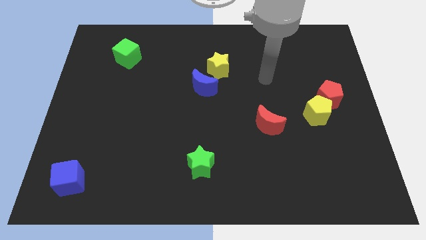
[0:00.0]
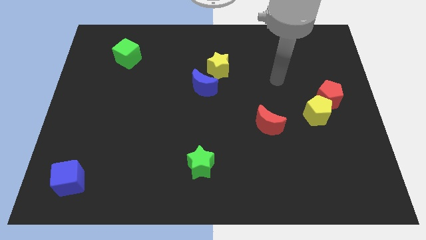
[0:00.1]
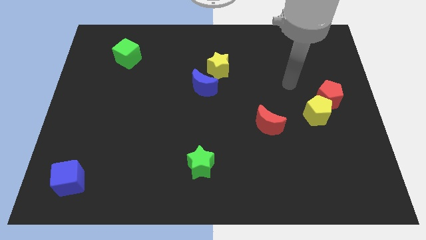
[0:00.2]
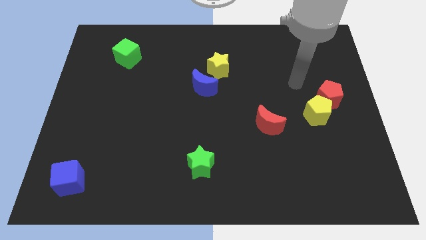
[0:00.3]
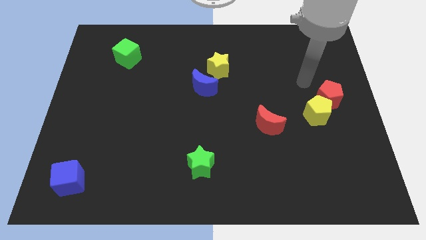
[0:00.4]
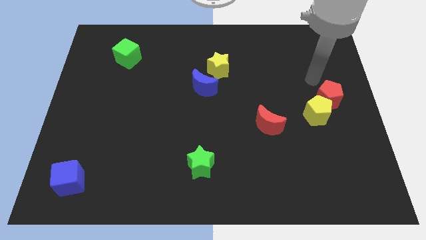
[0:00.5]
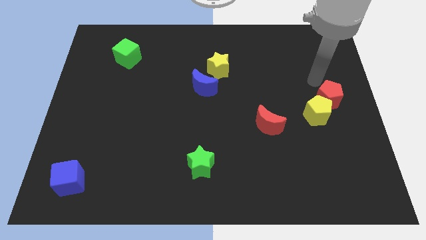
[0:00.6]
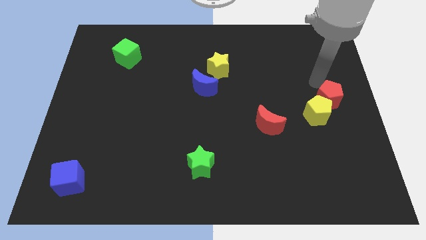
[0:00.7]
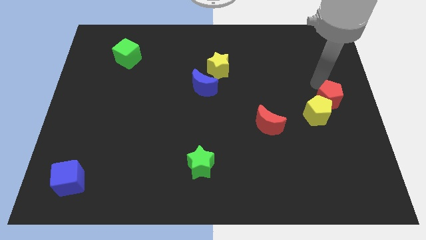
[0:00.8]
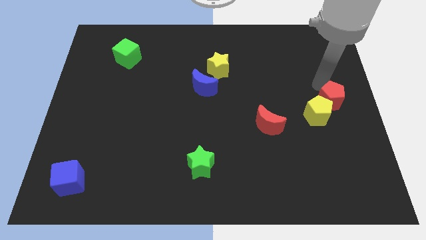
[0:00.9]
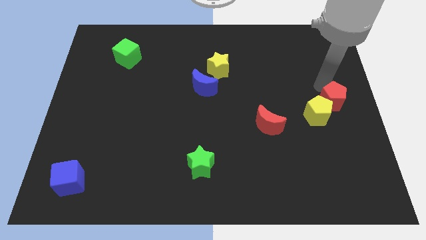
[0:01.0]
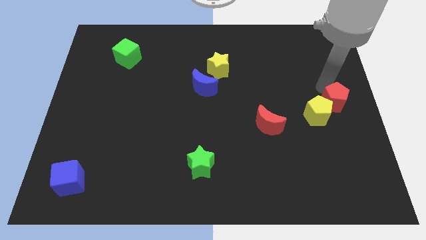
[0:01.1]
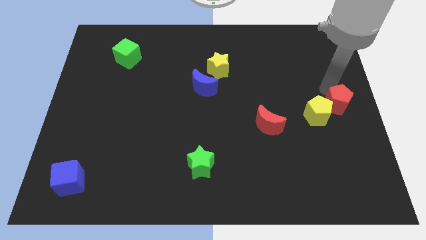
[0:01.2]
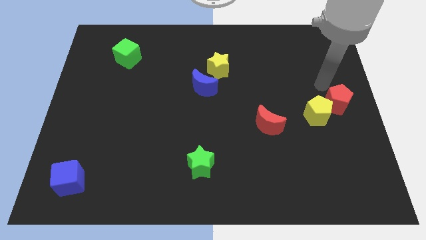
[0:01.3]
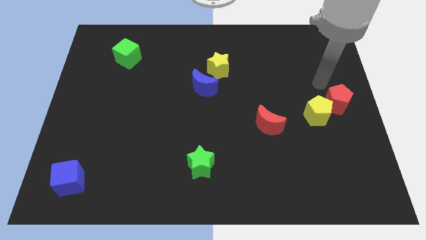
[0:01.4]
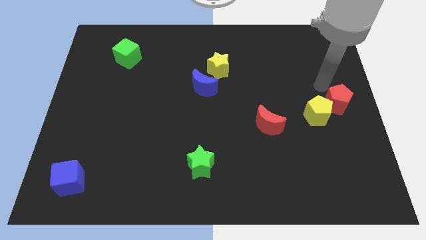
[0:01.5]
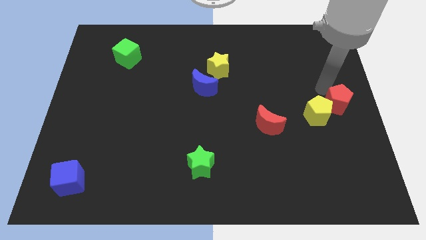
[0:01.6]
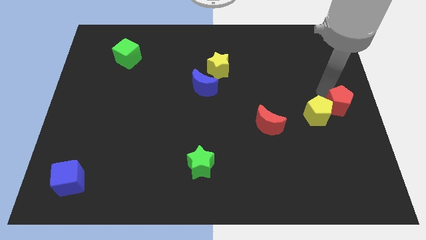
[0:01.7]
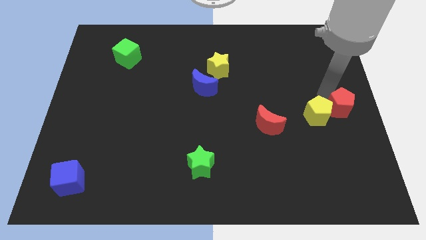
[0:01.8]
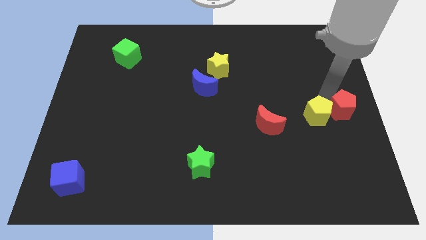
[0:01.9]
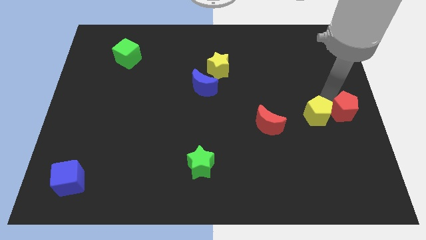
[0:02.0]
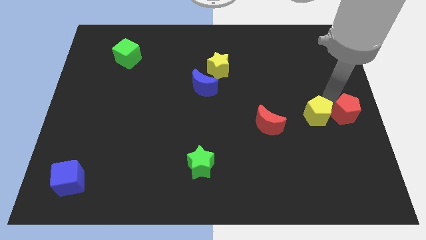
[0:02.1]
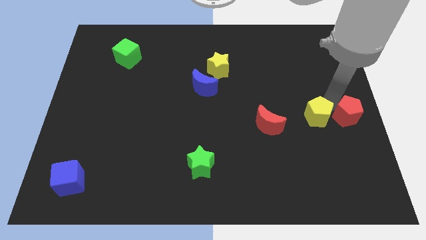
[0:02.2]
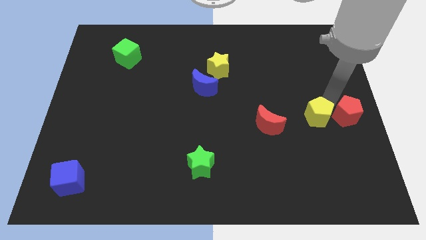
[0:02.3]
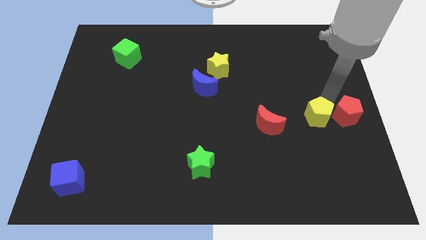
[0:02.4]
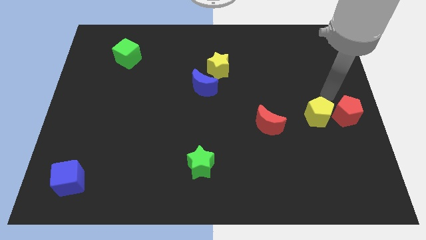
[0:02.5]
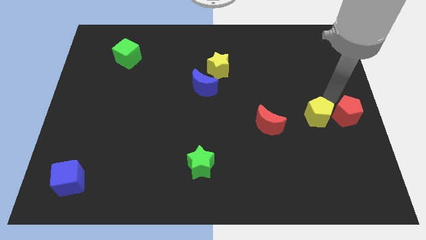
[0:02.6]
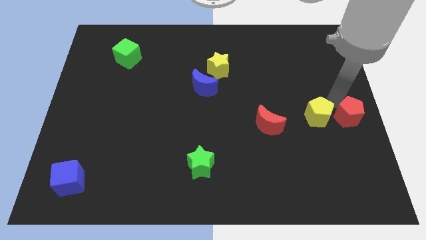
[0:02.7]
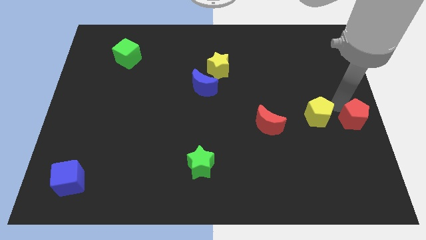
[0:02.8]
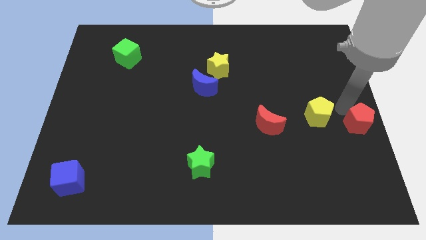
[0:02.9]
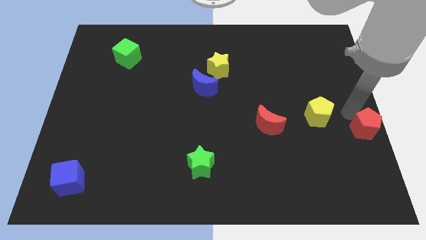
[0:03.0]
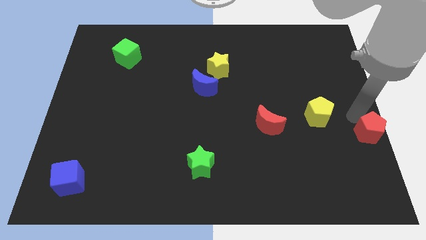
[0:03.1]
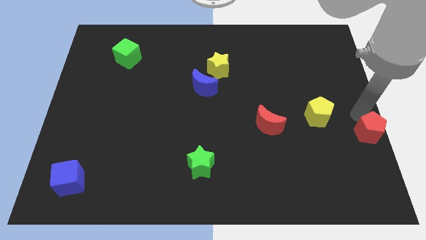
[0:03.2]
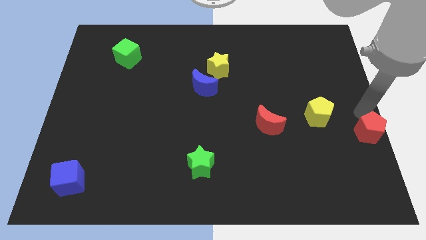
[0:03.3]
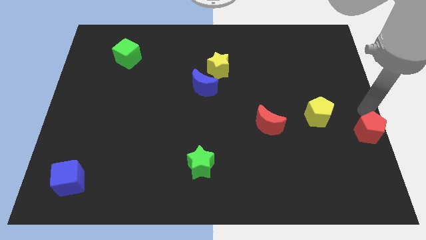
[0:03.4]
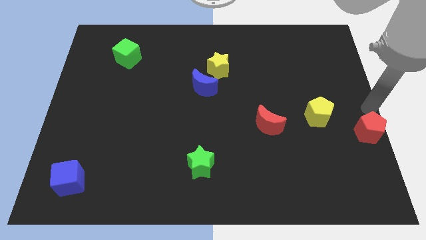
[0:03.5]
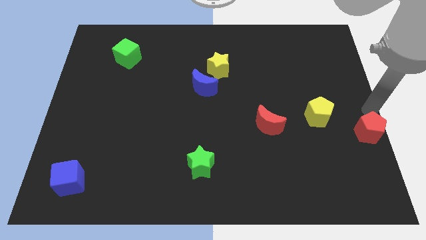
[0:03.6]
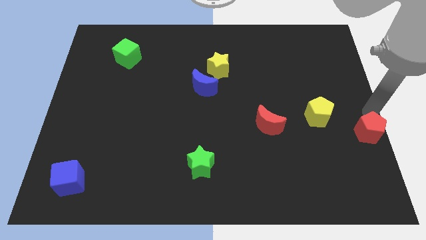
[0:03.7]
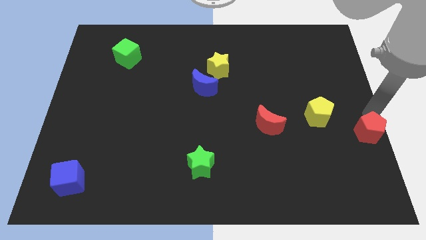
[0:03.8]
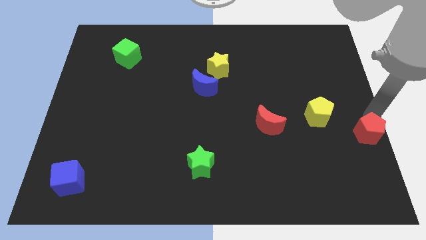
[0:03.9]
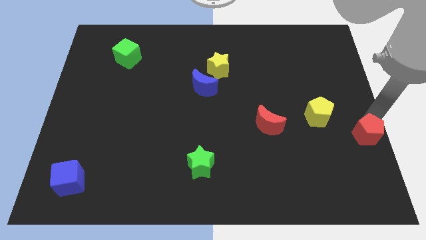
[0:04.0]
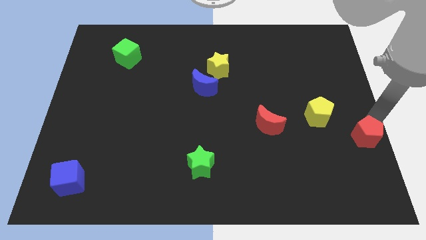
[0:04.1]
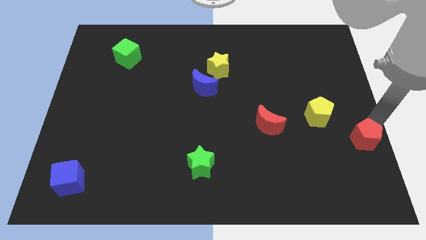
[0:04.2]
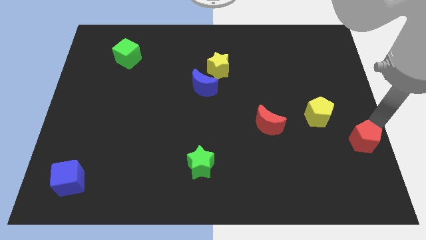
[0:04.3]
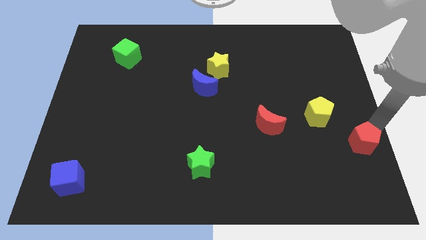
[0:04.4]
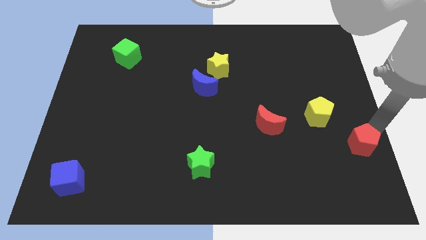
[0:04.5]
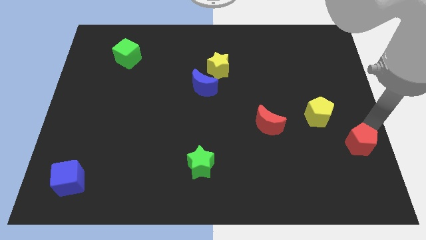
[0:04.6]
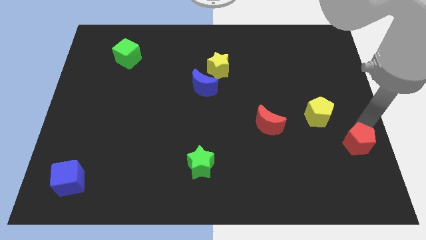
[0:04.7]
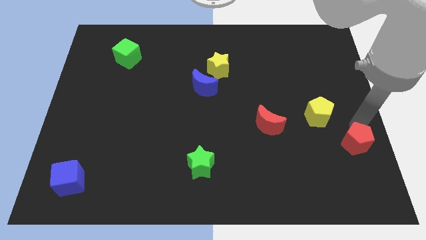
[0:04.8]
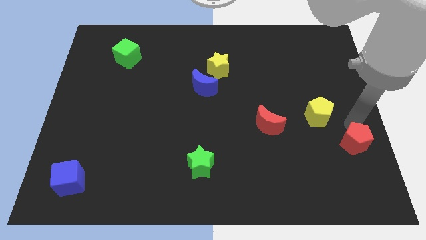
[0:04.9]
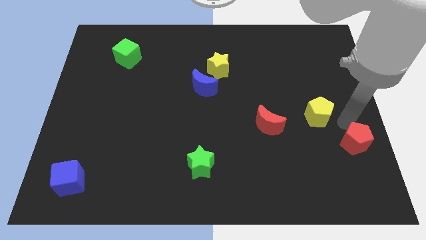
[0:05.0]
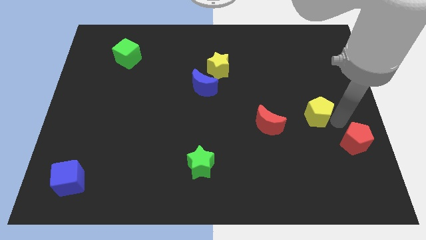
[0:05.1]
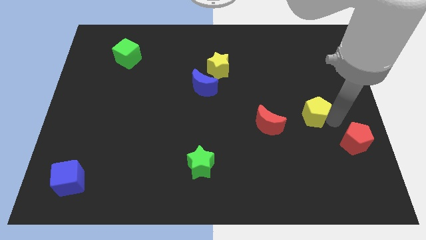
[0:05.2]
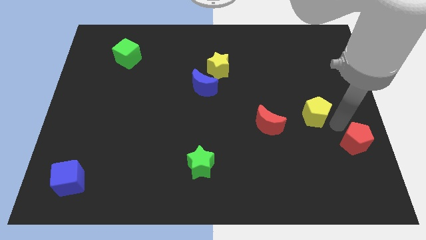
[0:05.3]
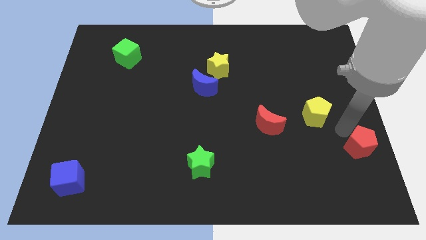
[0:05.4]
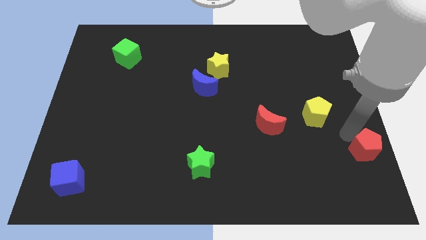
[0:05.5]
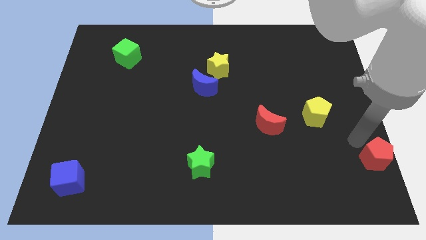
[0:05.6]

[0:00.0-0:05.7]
put the red pentagon to the bottom right

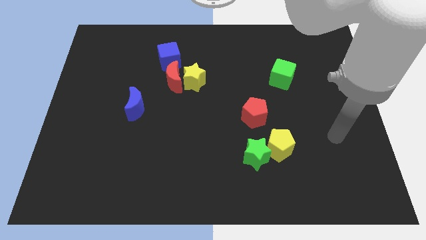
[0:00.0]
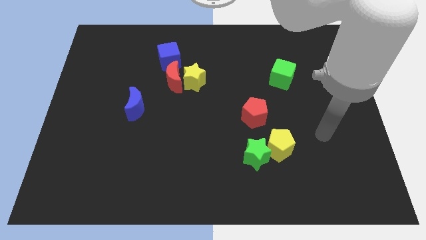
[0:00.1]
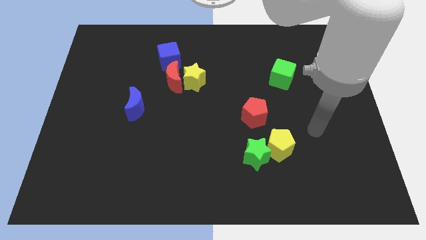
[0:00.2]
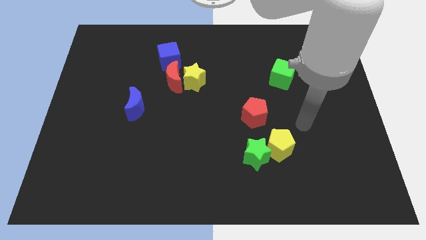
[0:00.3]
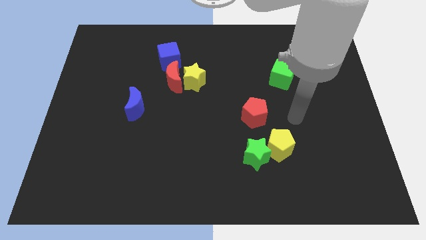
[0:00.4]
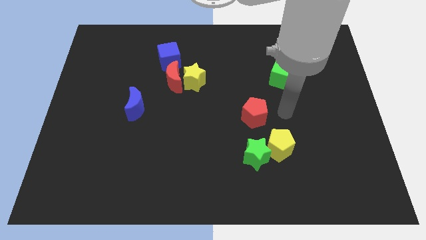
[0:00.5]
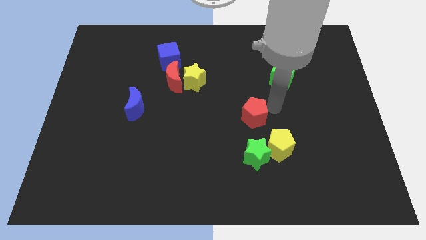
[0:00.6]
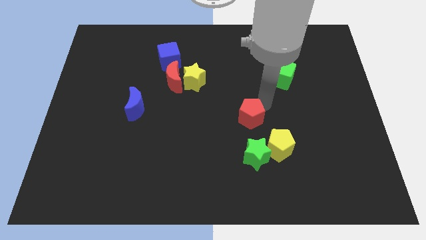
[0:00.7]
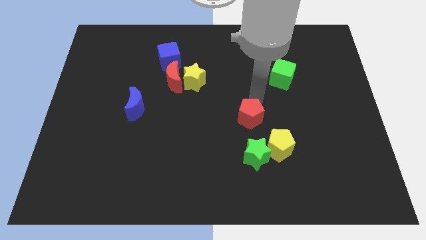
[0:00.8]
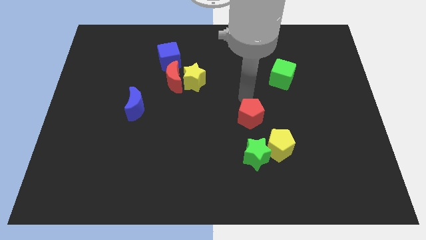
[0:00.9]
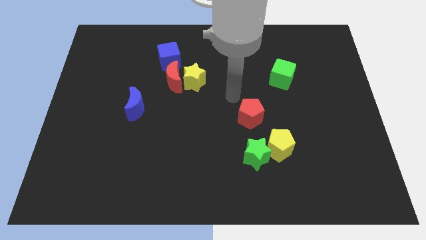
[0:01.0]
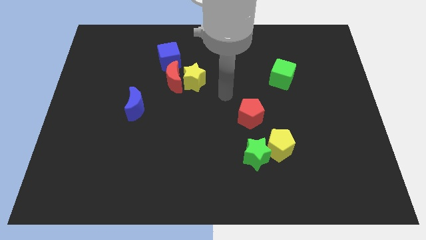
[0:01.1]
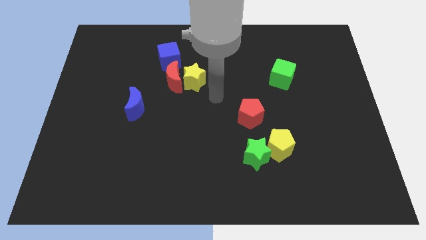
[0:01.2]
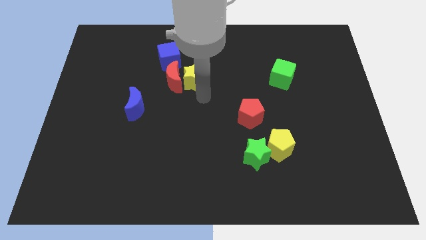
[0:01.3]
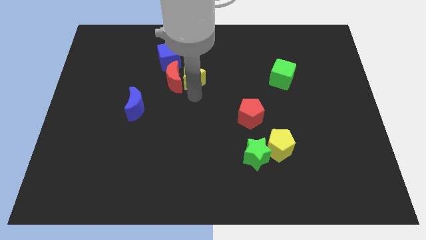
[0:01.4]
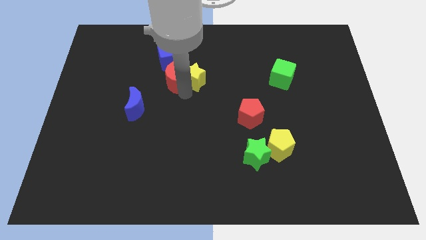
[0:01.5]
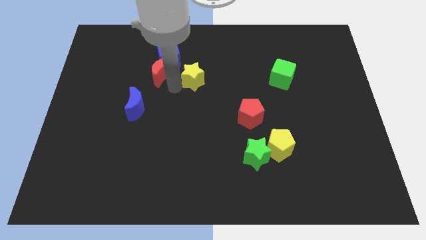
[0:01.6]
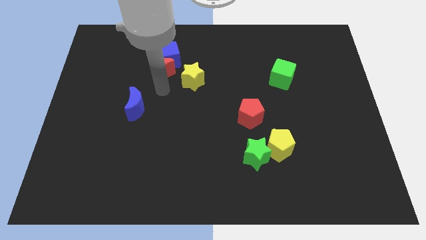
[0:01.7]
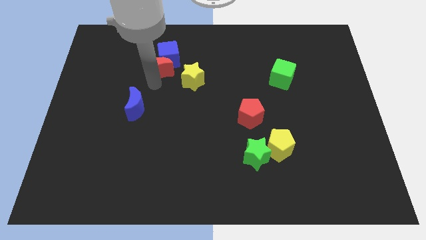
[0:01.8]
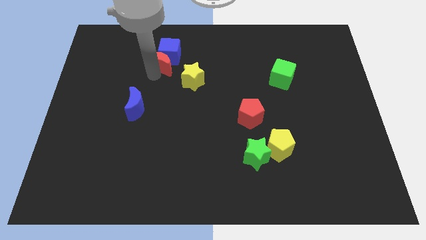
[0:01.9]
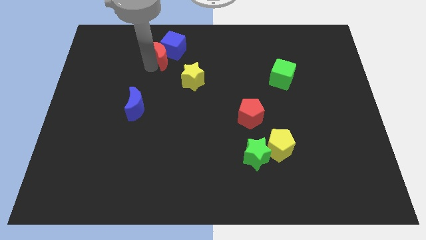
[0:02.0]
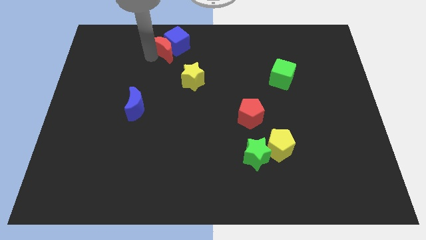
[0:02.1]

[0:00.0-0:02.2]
put the blue cube to the top
